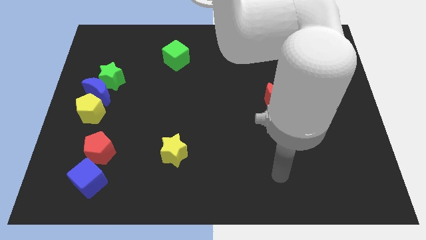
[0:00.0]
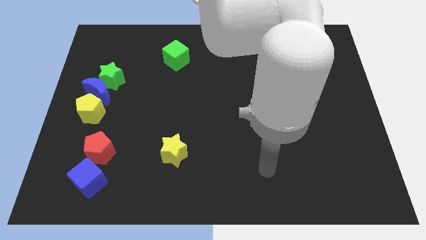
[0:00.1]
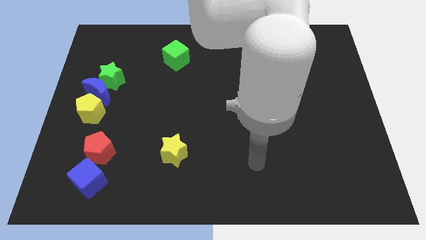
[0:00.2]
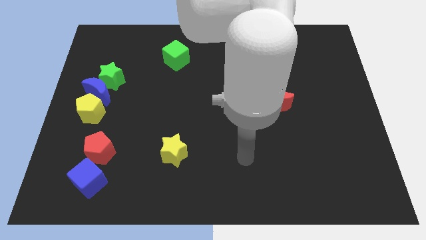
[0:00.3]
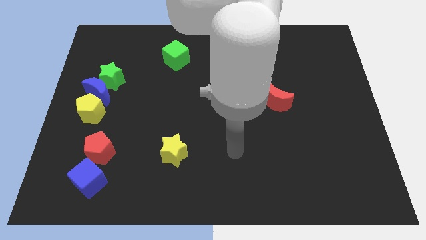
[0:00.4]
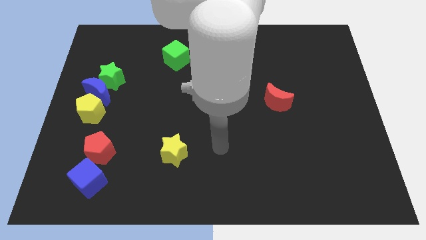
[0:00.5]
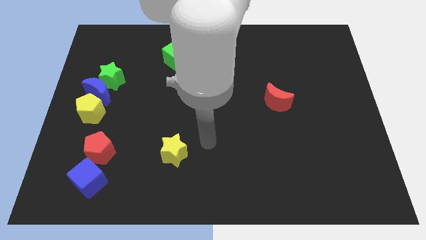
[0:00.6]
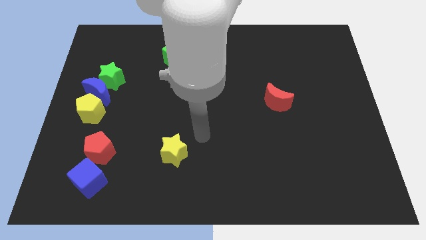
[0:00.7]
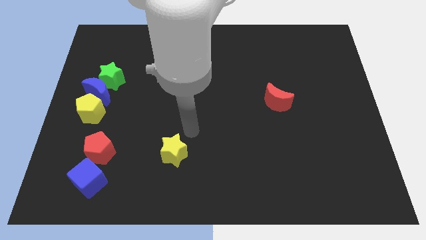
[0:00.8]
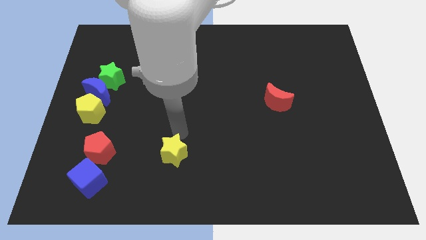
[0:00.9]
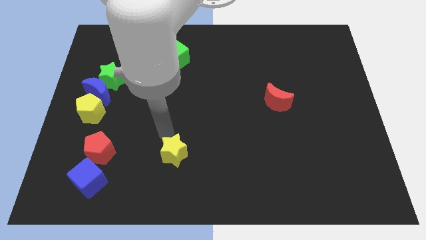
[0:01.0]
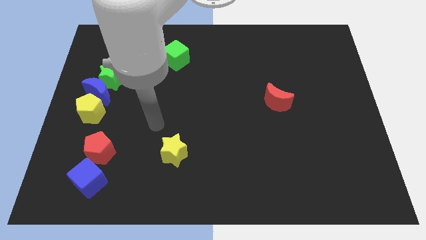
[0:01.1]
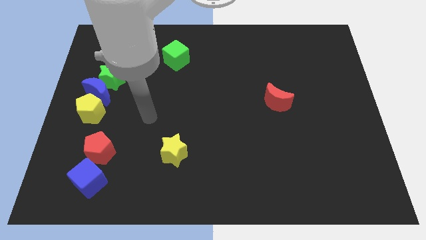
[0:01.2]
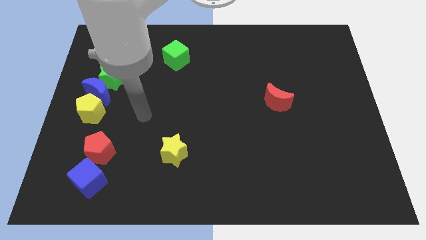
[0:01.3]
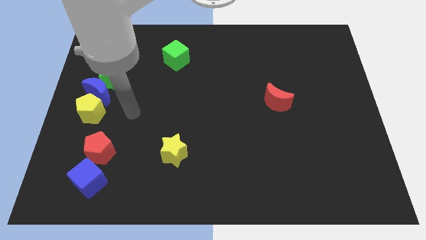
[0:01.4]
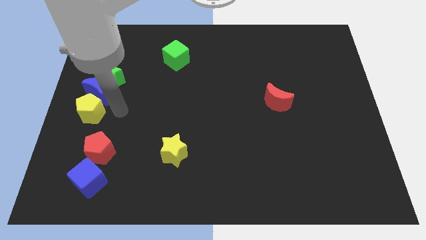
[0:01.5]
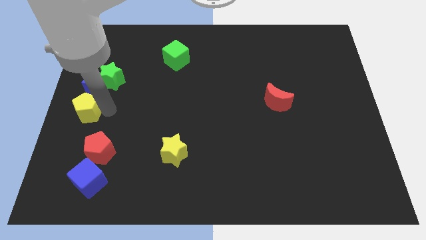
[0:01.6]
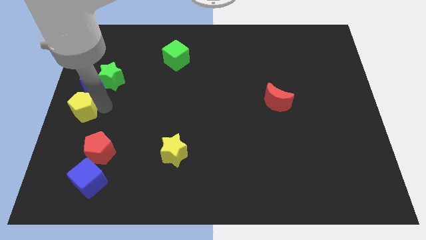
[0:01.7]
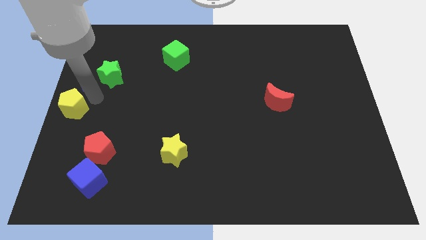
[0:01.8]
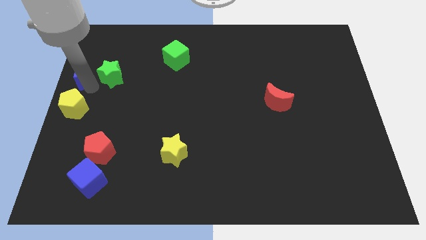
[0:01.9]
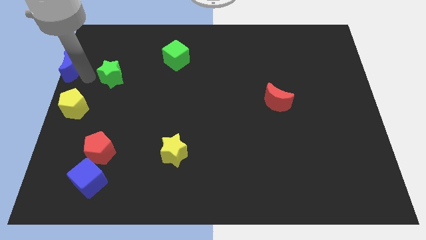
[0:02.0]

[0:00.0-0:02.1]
separate the green star from the blue moon

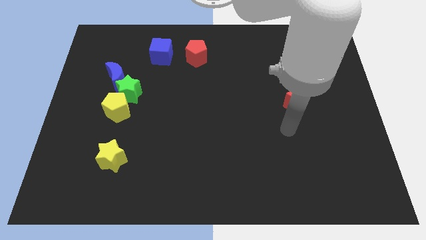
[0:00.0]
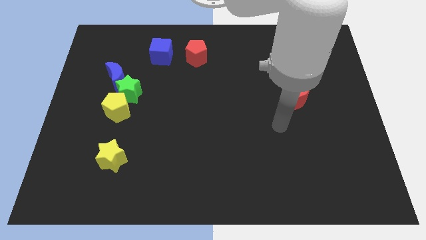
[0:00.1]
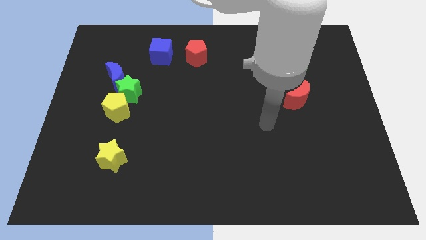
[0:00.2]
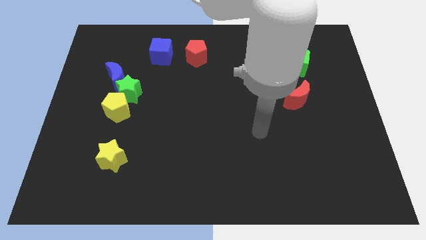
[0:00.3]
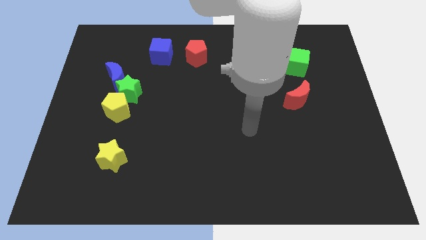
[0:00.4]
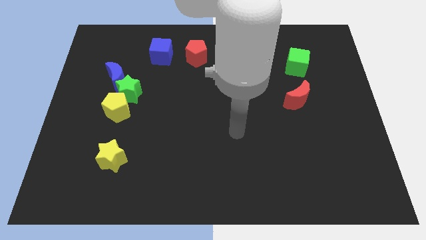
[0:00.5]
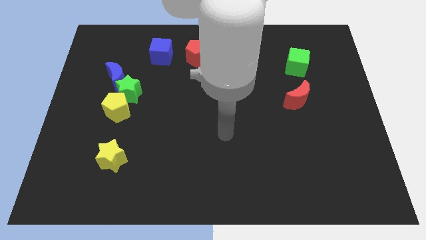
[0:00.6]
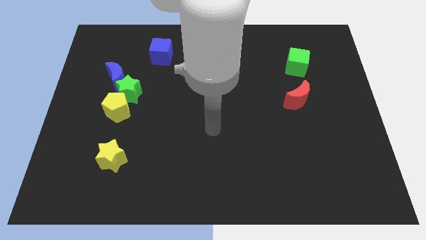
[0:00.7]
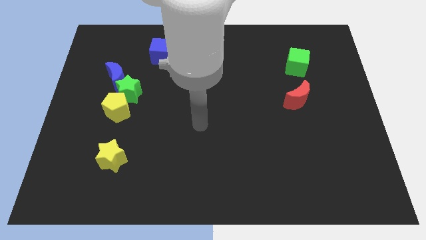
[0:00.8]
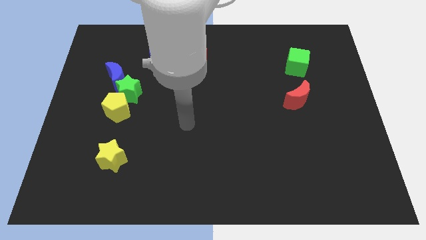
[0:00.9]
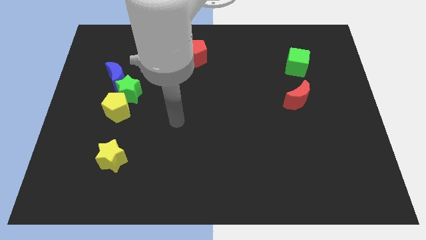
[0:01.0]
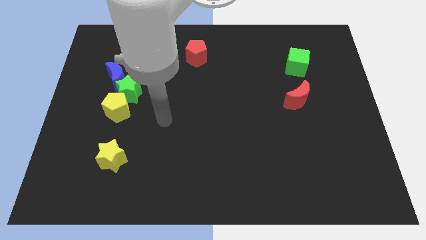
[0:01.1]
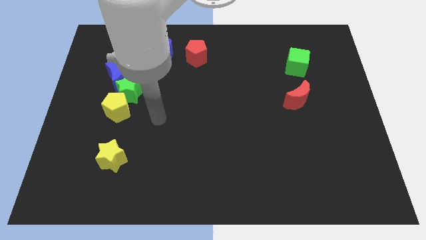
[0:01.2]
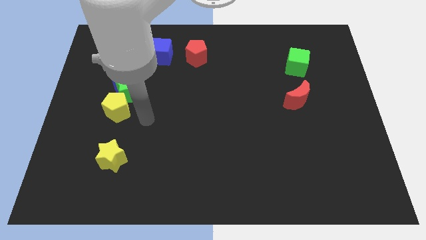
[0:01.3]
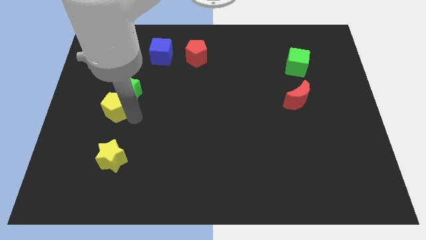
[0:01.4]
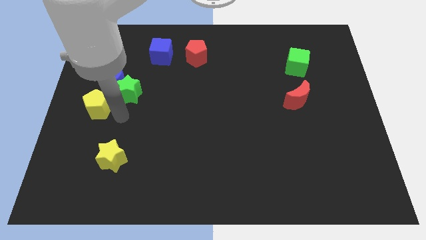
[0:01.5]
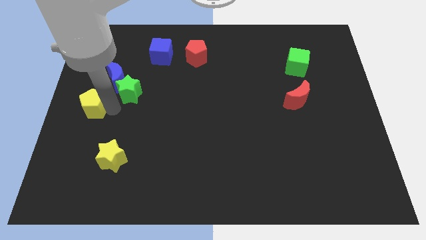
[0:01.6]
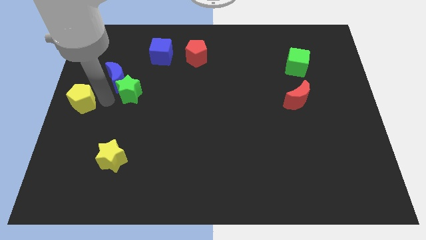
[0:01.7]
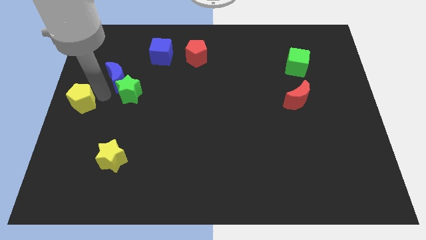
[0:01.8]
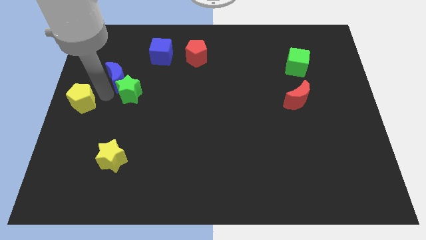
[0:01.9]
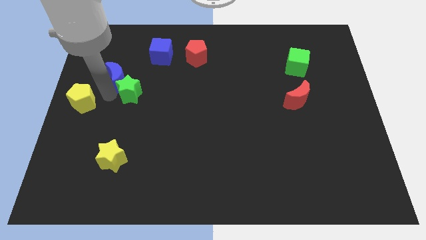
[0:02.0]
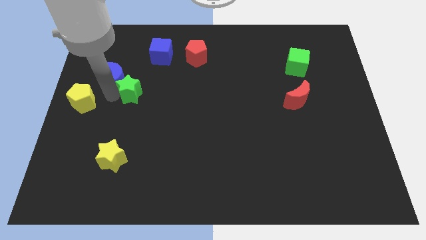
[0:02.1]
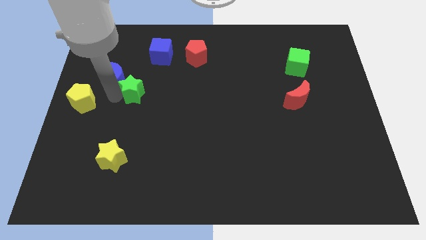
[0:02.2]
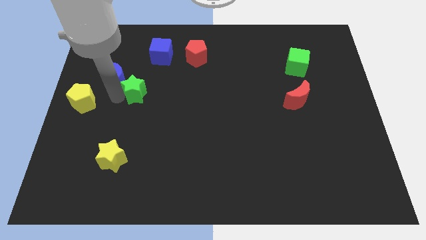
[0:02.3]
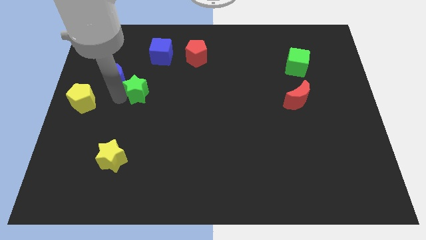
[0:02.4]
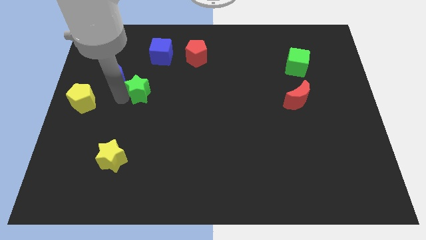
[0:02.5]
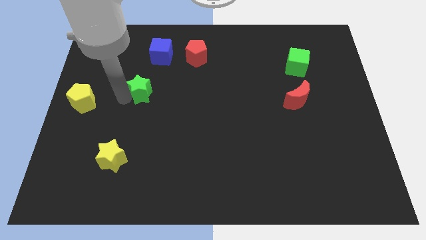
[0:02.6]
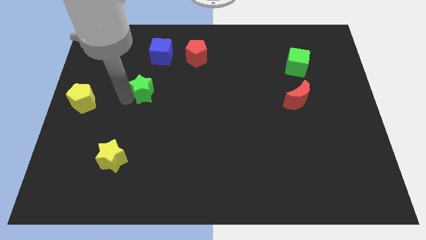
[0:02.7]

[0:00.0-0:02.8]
move the green star away from the yellow pentagon and blue moon

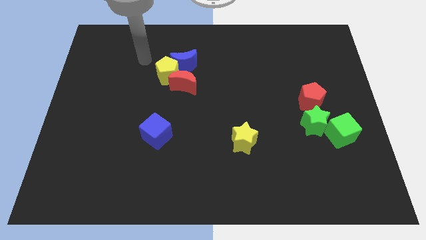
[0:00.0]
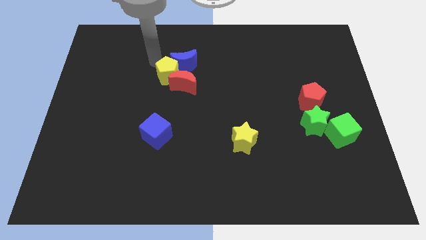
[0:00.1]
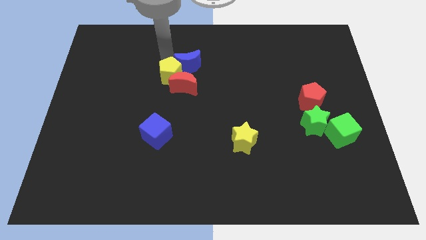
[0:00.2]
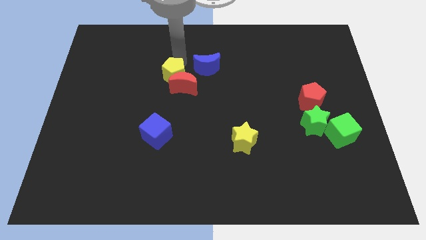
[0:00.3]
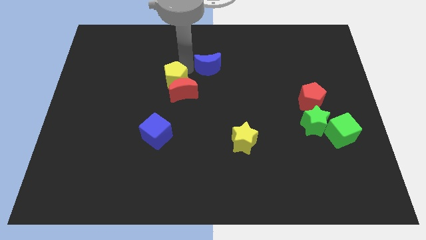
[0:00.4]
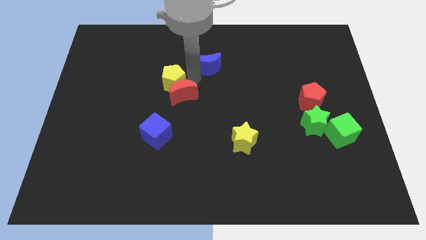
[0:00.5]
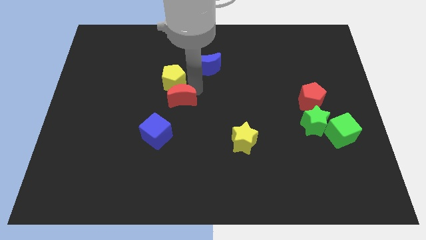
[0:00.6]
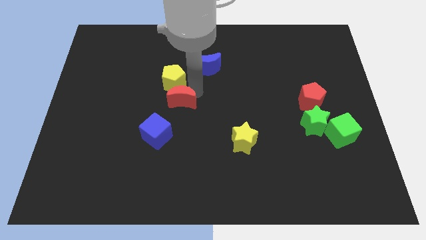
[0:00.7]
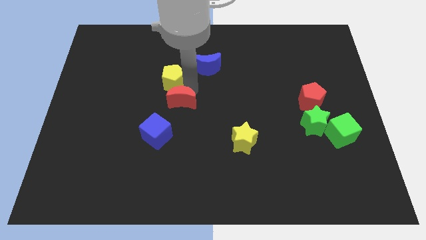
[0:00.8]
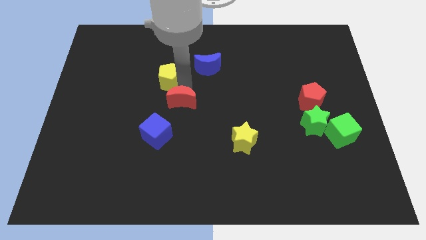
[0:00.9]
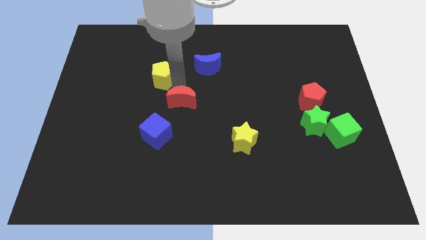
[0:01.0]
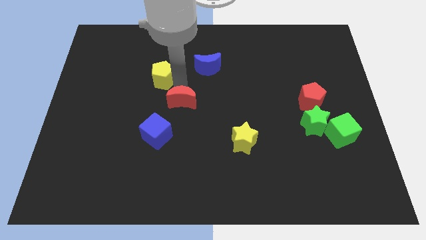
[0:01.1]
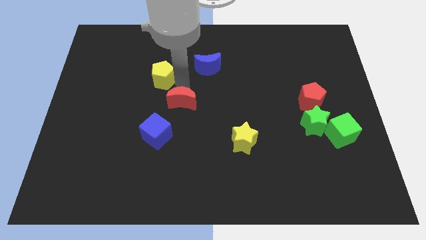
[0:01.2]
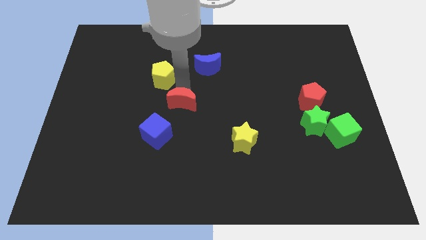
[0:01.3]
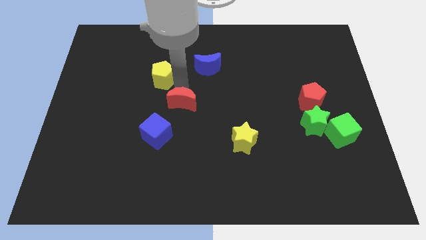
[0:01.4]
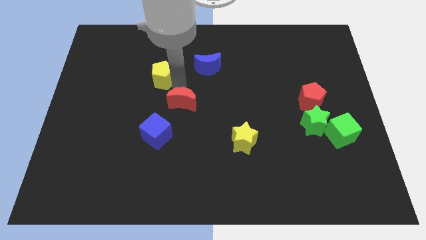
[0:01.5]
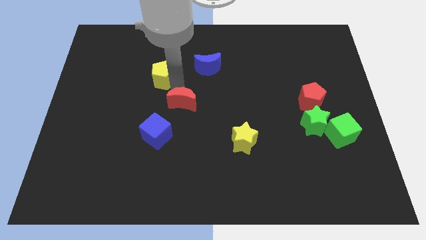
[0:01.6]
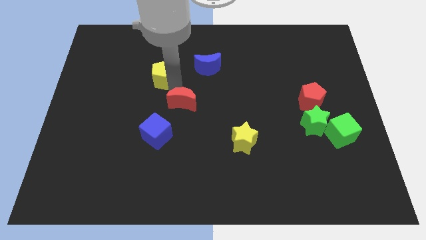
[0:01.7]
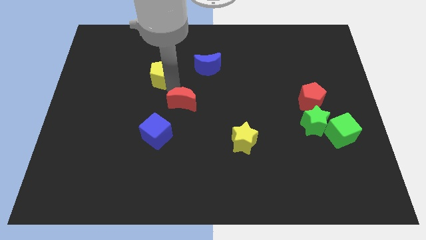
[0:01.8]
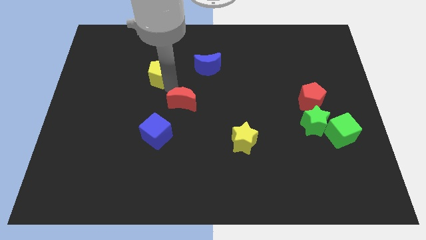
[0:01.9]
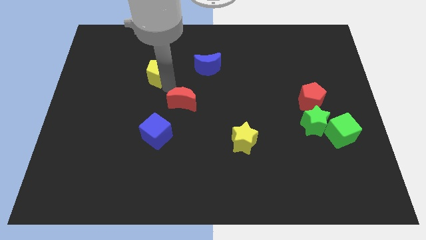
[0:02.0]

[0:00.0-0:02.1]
move the yellow pentagon away from the blue moon and red moon

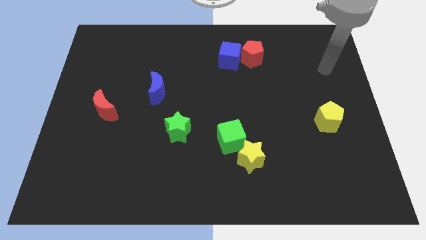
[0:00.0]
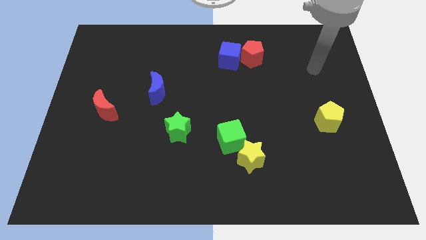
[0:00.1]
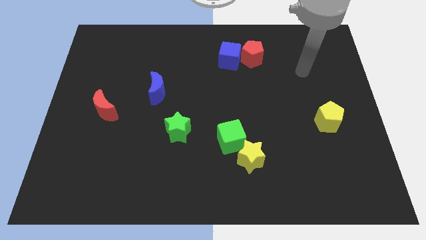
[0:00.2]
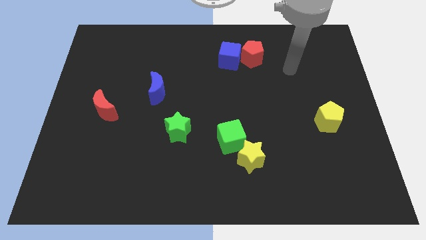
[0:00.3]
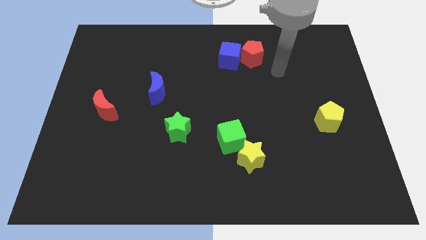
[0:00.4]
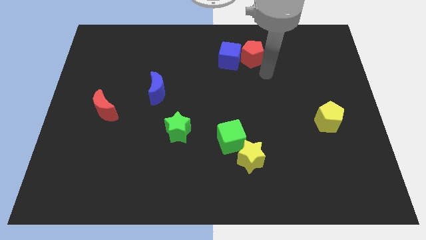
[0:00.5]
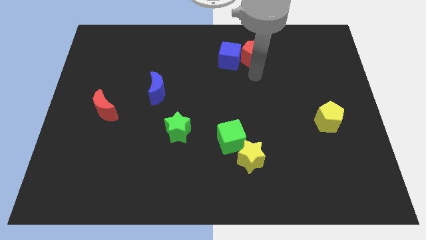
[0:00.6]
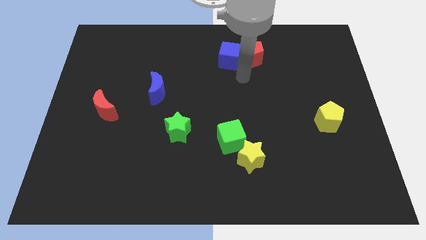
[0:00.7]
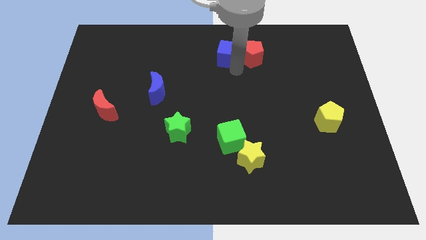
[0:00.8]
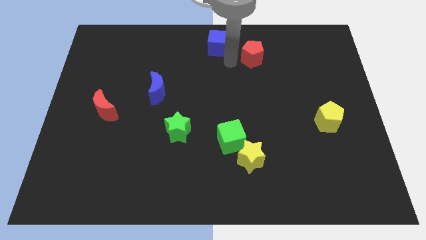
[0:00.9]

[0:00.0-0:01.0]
move the red pentagon away from the blue cube

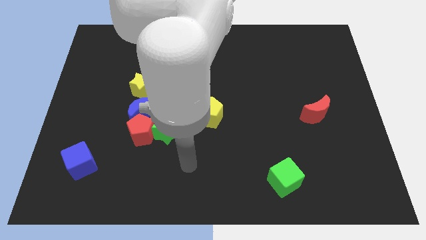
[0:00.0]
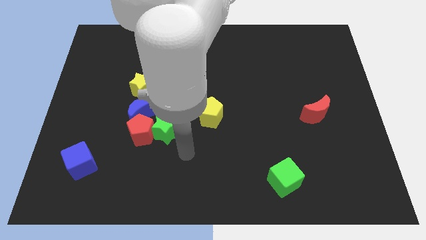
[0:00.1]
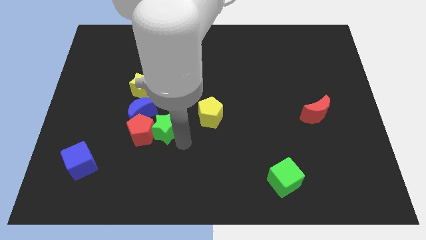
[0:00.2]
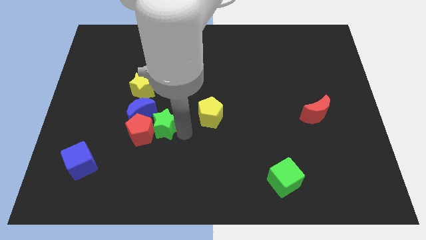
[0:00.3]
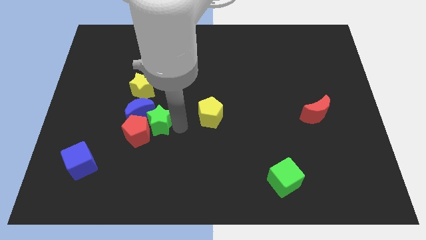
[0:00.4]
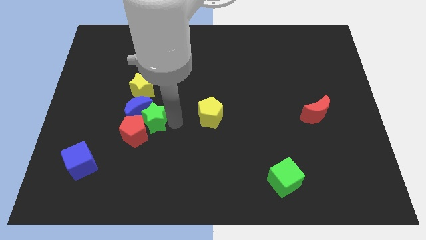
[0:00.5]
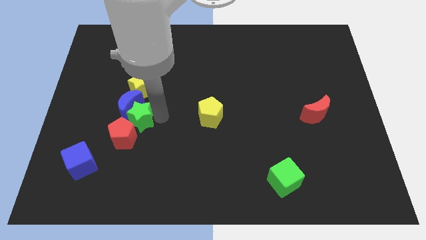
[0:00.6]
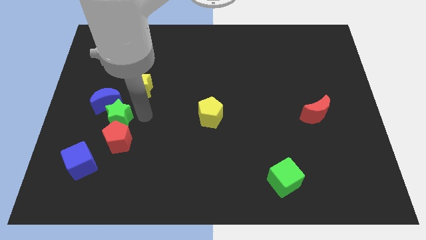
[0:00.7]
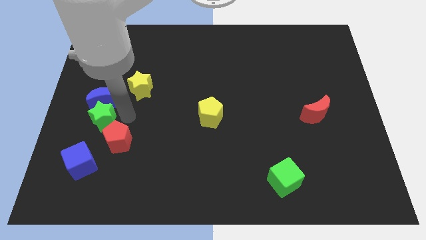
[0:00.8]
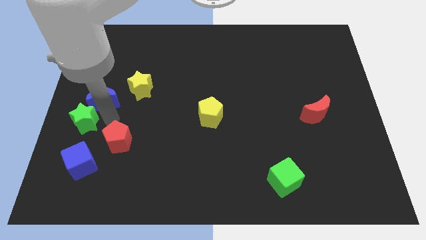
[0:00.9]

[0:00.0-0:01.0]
move the red pentagon away from the blue moon and green star

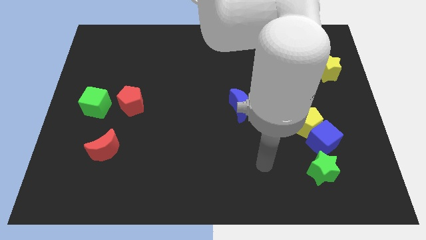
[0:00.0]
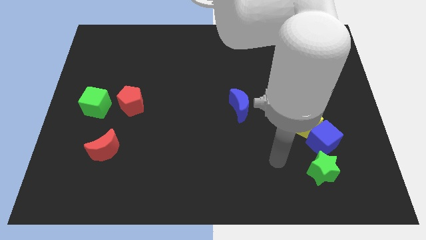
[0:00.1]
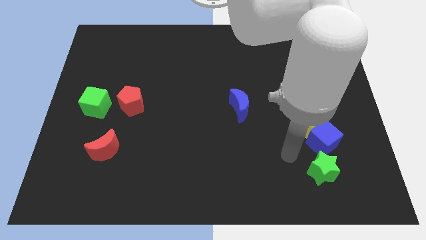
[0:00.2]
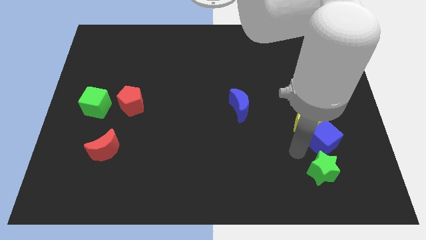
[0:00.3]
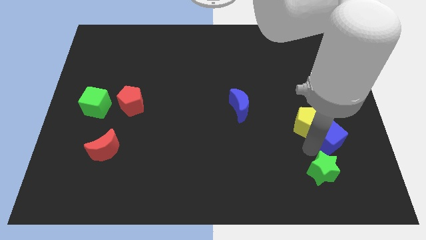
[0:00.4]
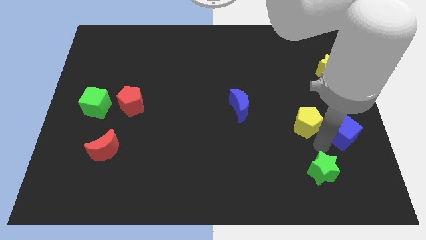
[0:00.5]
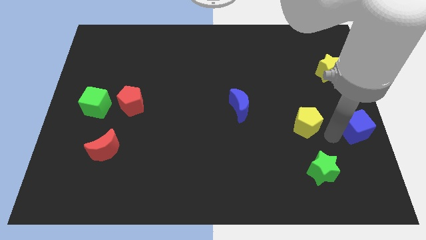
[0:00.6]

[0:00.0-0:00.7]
pull the yellow pentagon apart from the blue cube
